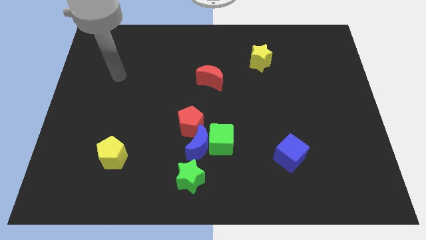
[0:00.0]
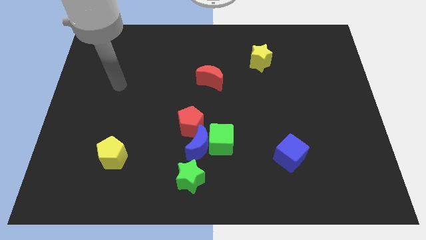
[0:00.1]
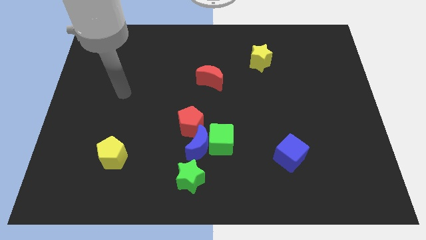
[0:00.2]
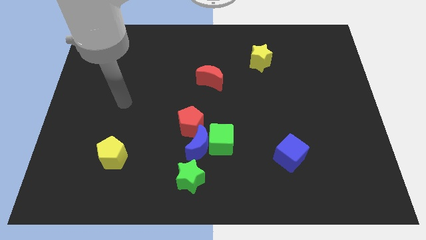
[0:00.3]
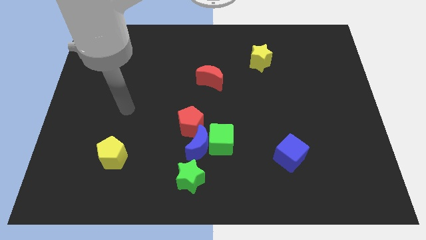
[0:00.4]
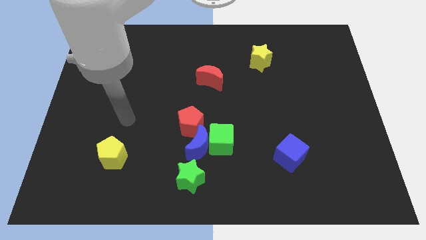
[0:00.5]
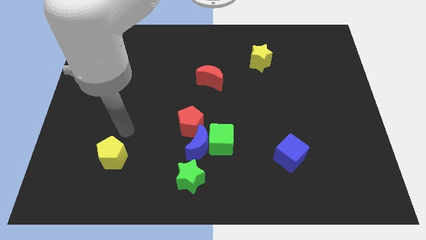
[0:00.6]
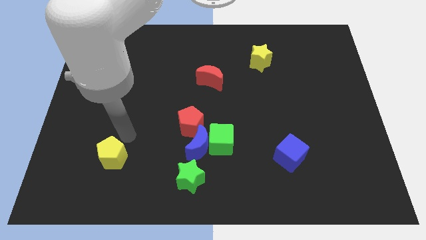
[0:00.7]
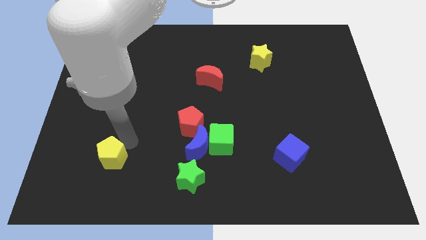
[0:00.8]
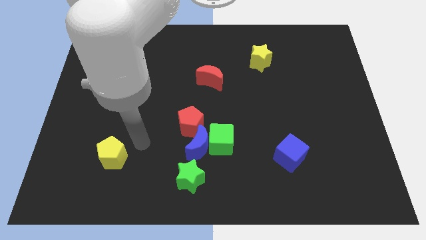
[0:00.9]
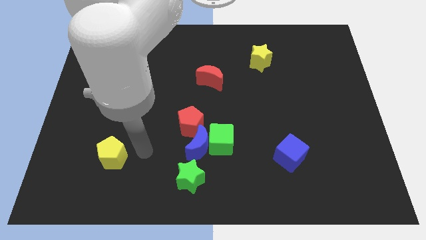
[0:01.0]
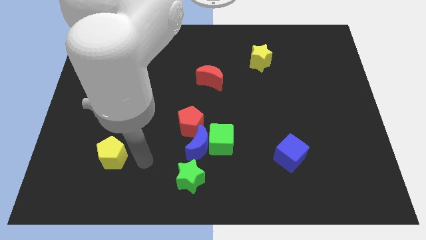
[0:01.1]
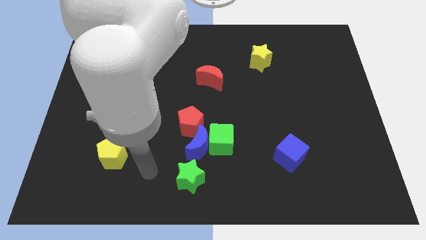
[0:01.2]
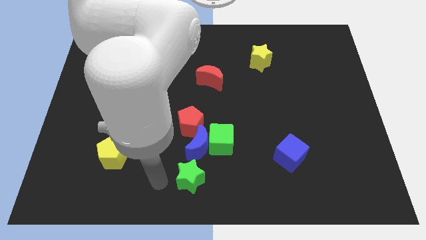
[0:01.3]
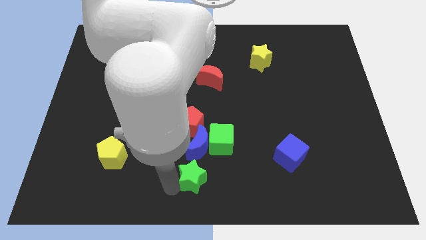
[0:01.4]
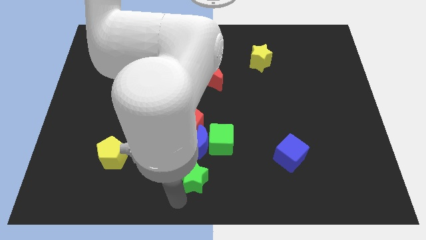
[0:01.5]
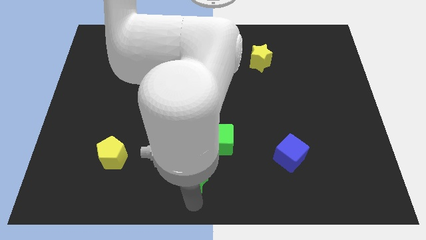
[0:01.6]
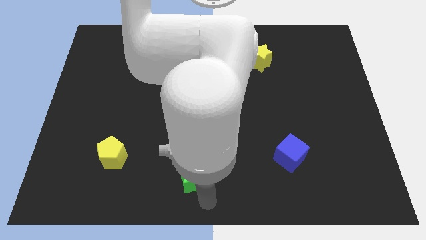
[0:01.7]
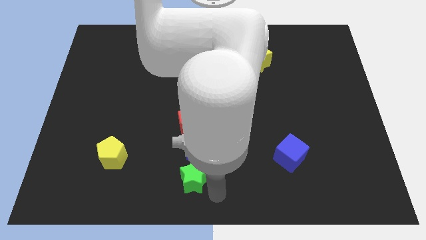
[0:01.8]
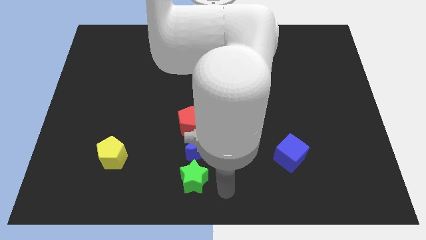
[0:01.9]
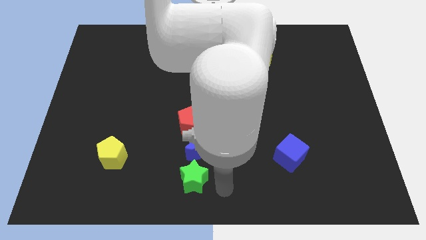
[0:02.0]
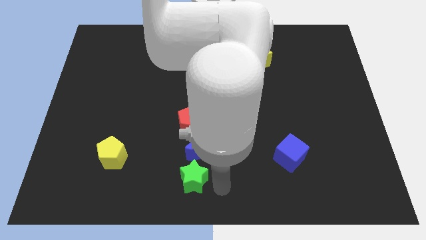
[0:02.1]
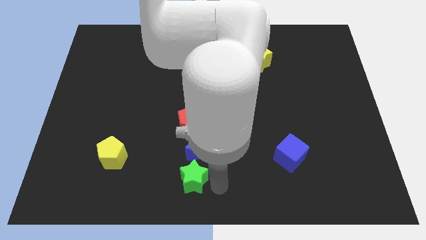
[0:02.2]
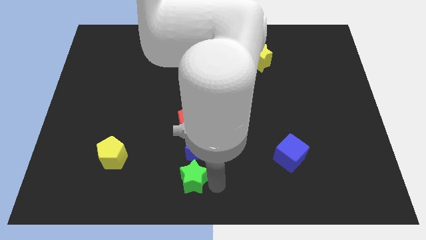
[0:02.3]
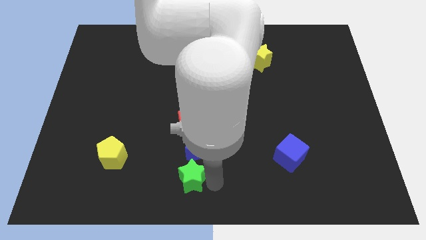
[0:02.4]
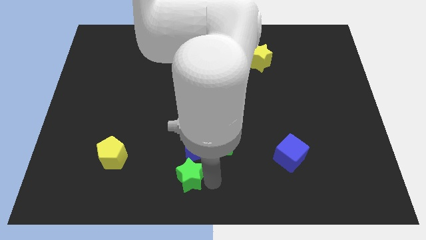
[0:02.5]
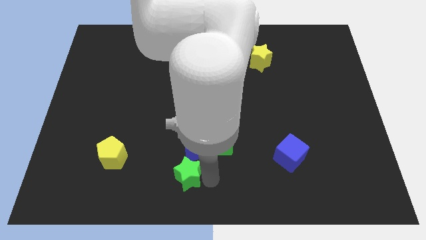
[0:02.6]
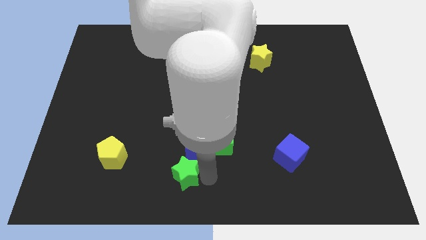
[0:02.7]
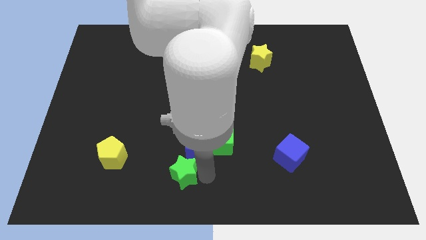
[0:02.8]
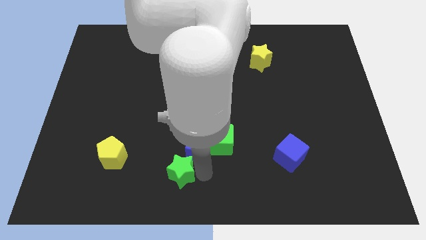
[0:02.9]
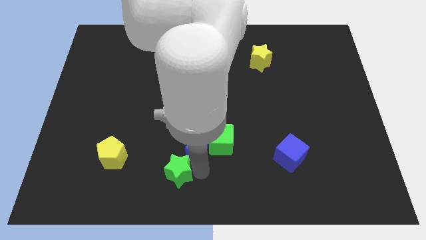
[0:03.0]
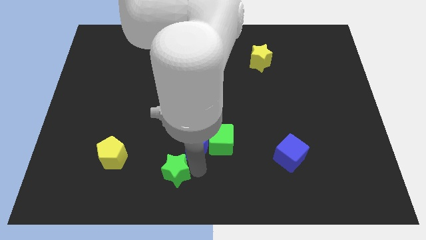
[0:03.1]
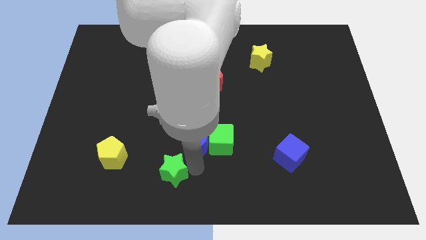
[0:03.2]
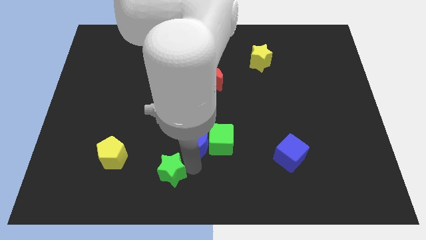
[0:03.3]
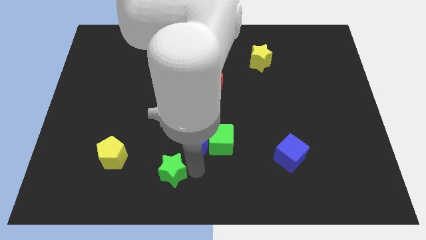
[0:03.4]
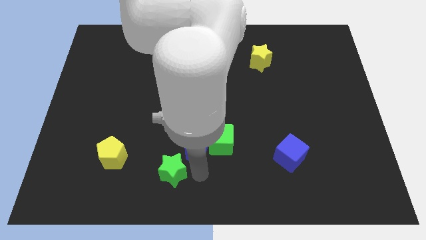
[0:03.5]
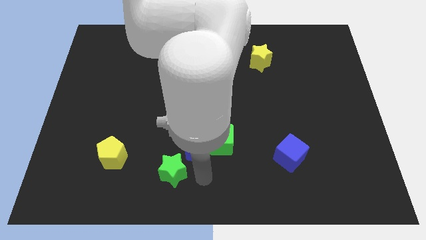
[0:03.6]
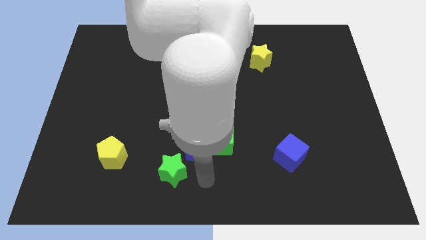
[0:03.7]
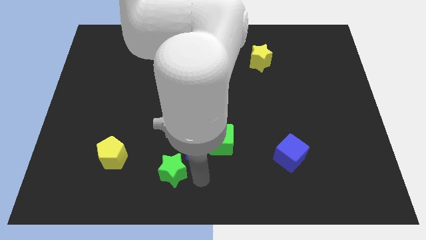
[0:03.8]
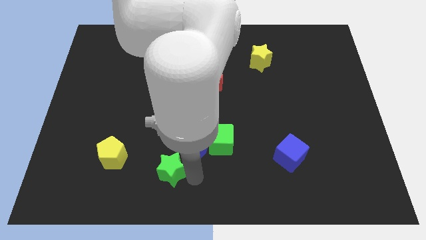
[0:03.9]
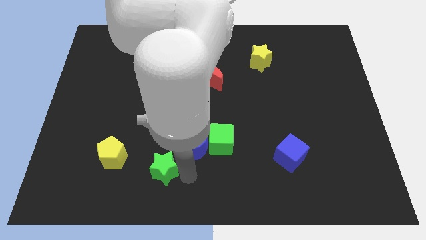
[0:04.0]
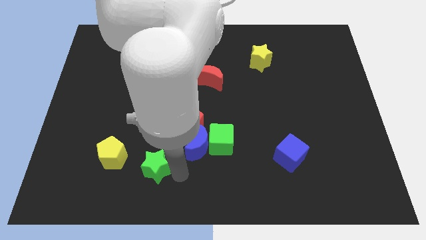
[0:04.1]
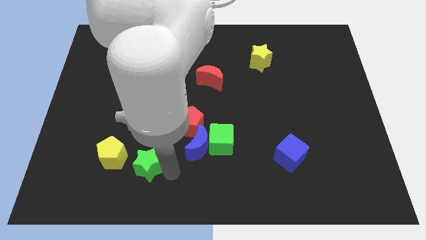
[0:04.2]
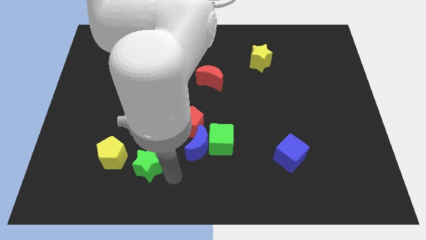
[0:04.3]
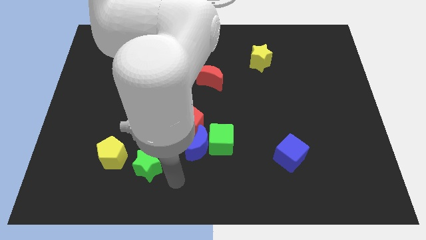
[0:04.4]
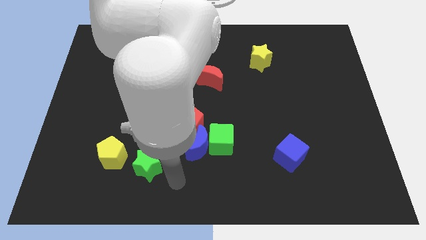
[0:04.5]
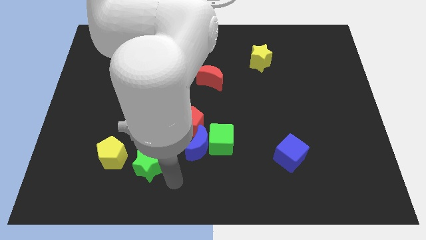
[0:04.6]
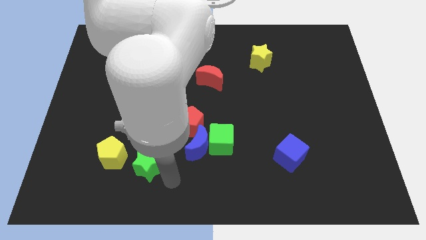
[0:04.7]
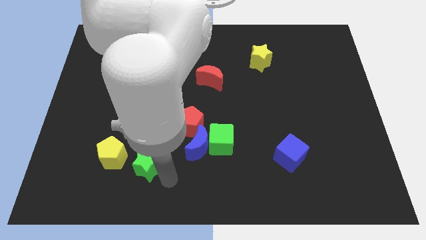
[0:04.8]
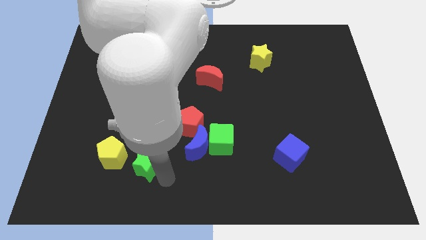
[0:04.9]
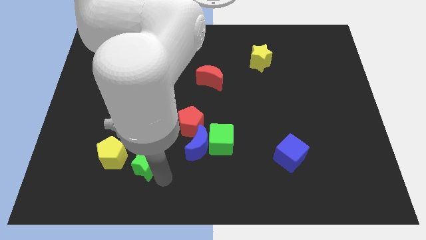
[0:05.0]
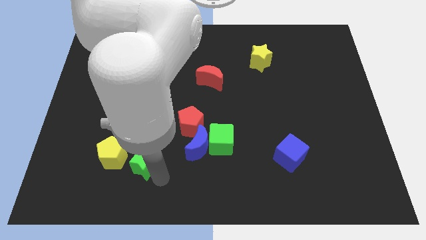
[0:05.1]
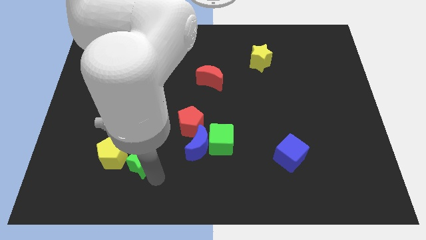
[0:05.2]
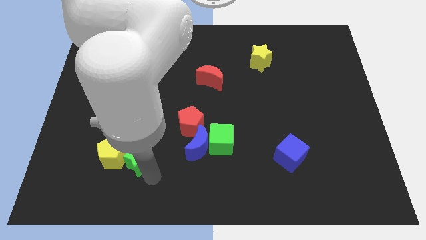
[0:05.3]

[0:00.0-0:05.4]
move the green star next to the yellow pentagon

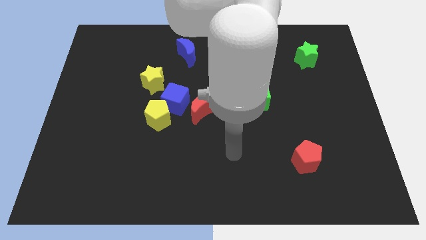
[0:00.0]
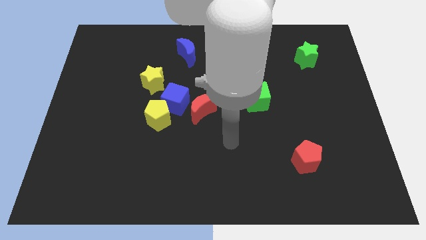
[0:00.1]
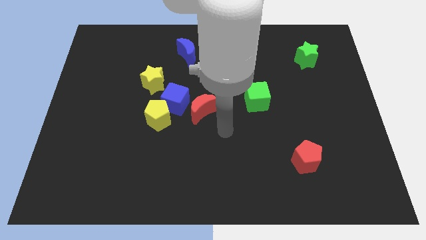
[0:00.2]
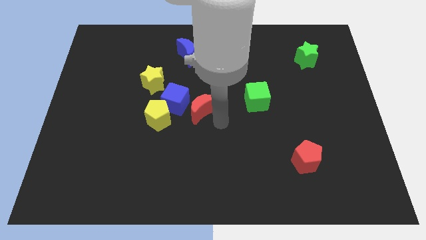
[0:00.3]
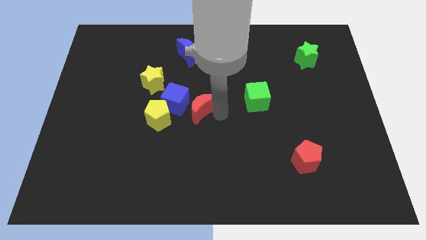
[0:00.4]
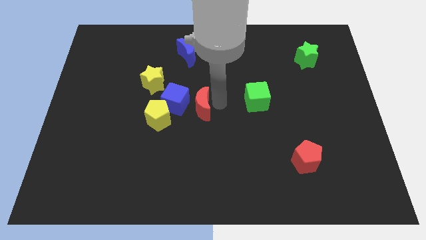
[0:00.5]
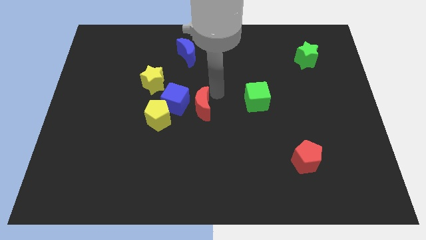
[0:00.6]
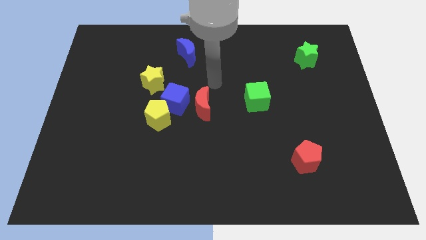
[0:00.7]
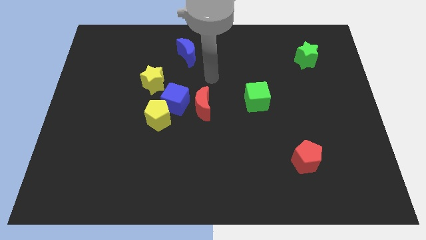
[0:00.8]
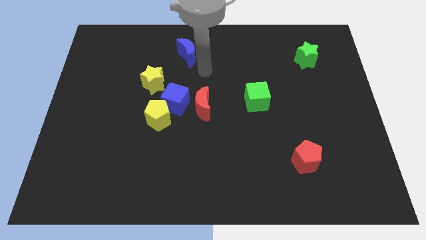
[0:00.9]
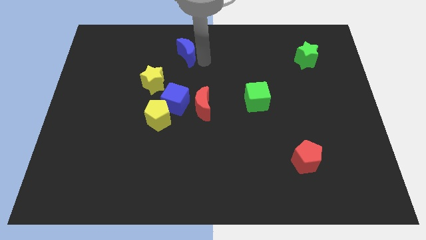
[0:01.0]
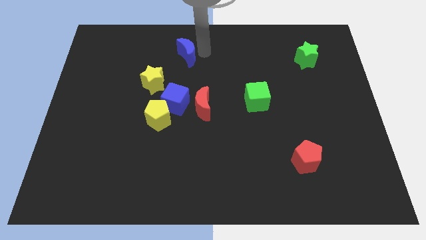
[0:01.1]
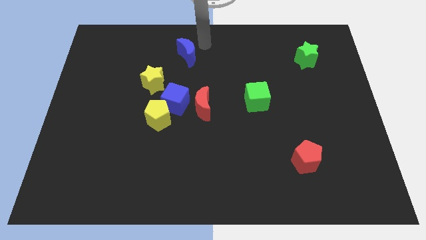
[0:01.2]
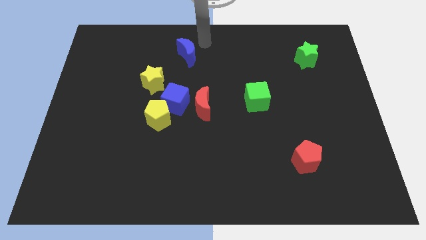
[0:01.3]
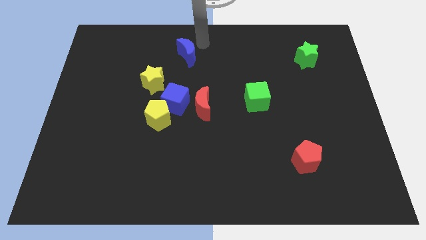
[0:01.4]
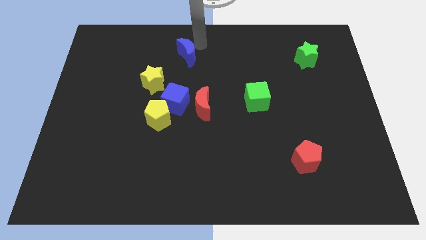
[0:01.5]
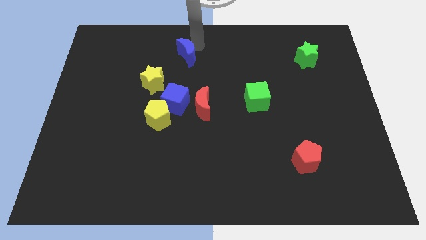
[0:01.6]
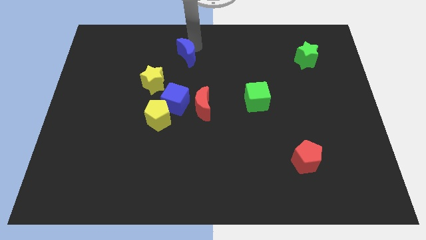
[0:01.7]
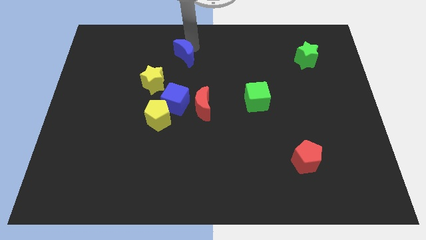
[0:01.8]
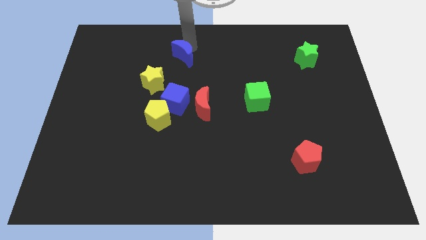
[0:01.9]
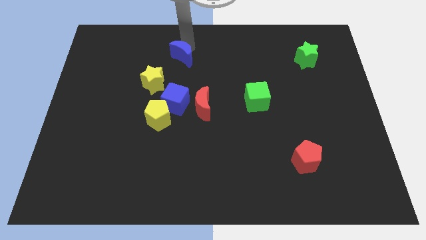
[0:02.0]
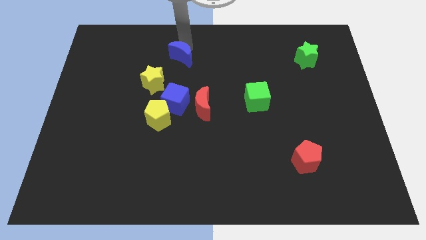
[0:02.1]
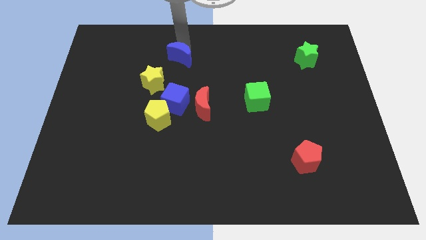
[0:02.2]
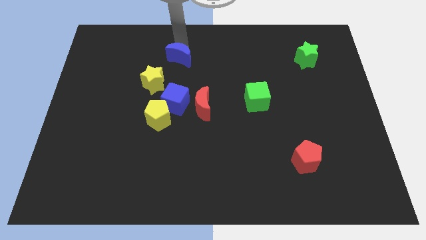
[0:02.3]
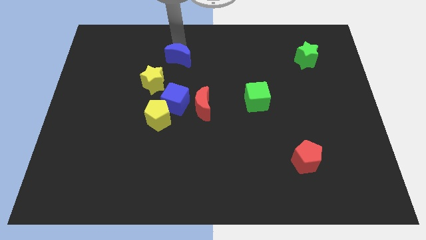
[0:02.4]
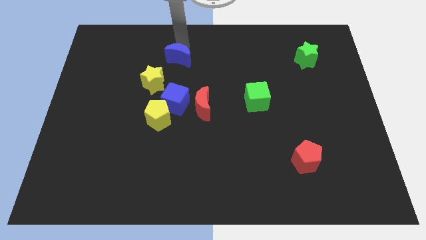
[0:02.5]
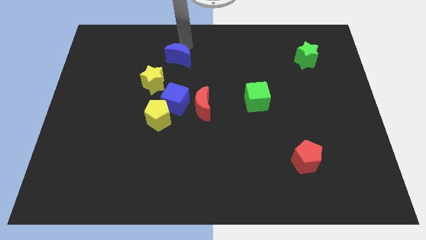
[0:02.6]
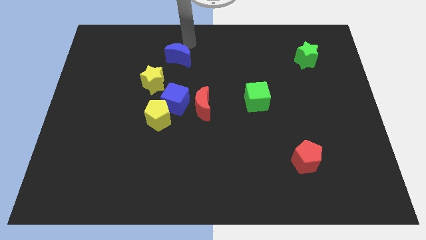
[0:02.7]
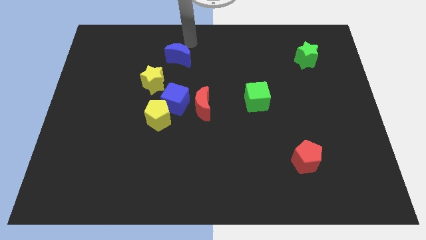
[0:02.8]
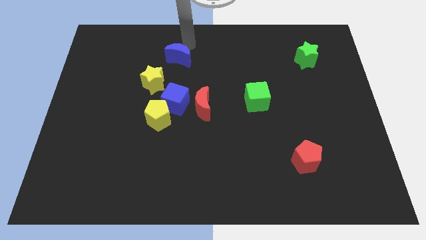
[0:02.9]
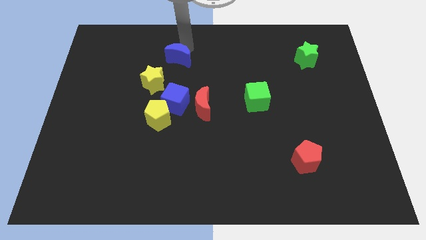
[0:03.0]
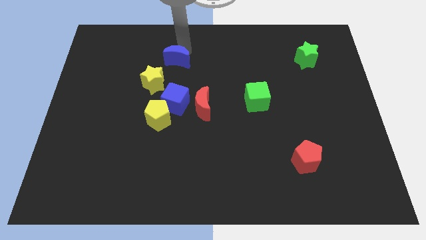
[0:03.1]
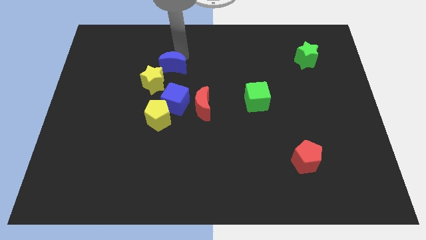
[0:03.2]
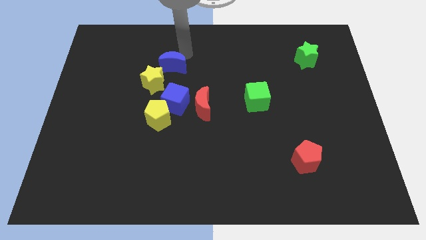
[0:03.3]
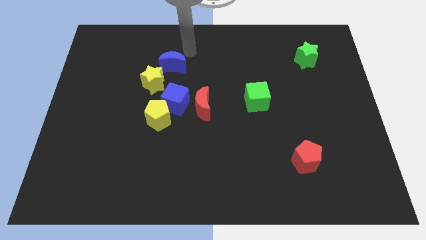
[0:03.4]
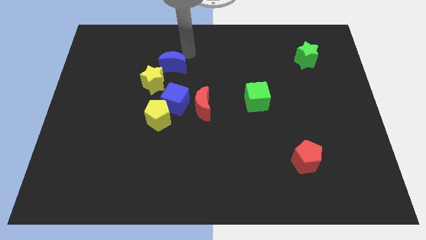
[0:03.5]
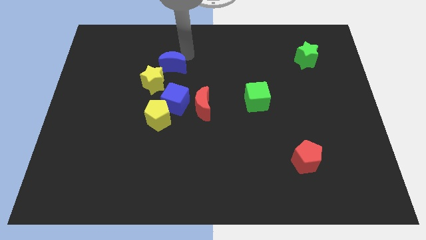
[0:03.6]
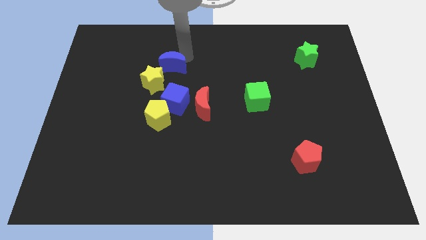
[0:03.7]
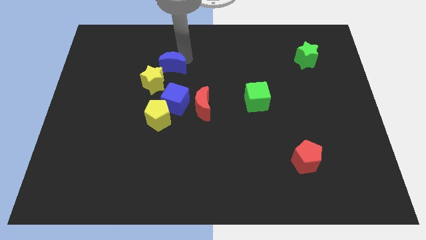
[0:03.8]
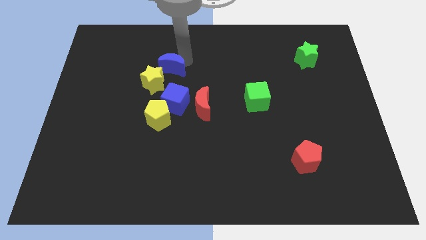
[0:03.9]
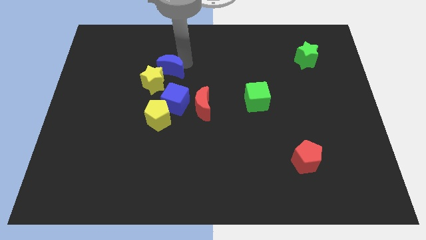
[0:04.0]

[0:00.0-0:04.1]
put the blue moon close to the yellow star
